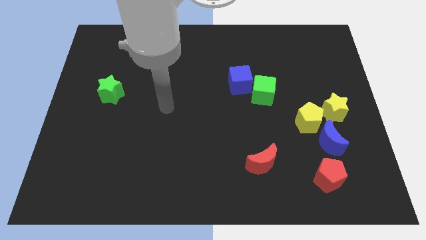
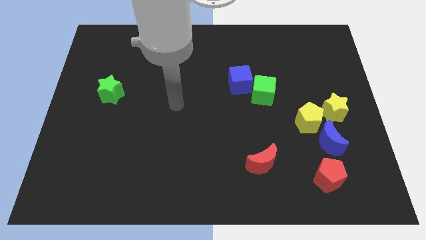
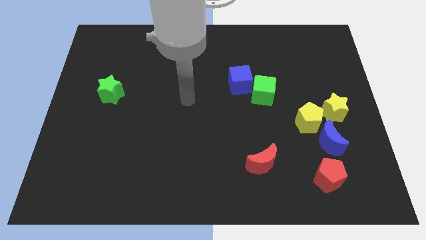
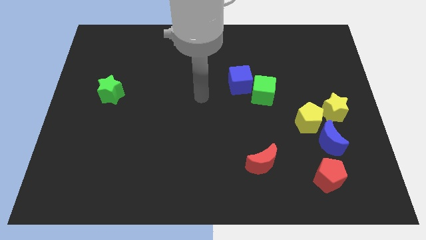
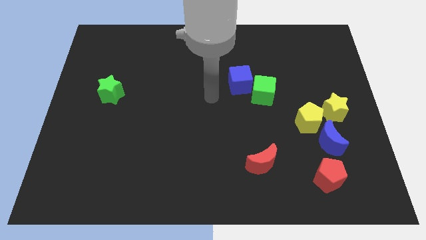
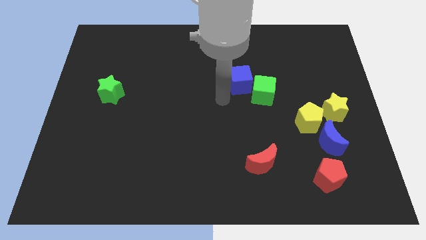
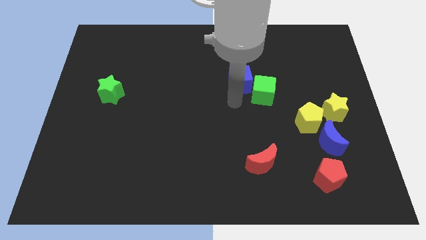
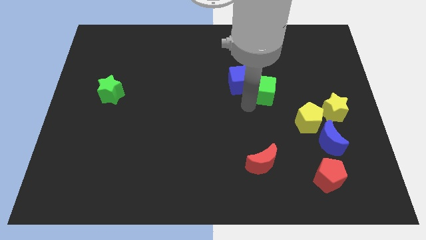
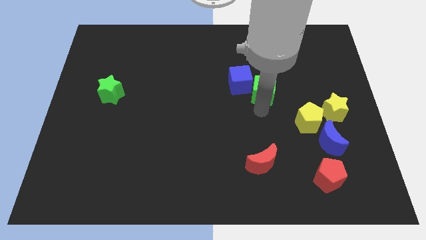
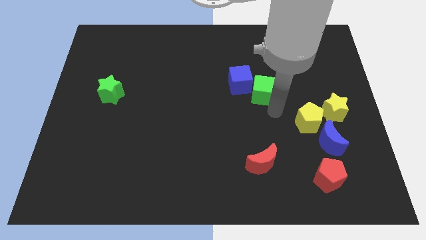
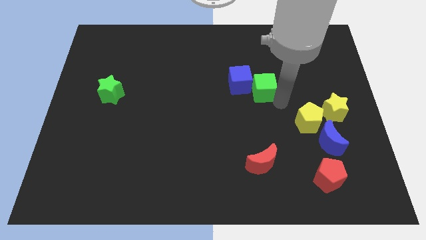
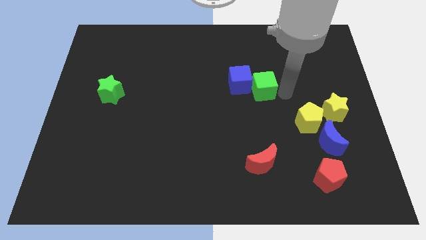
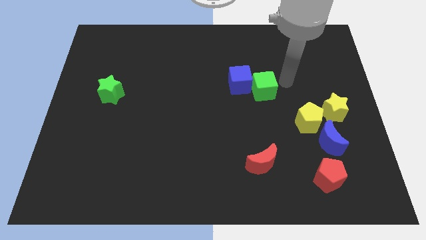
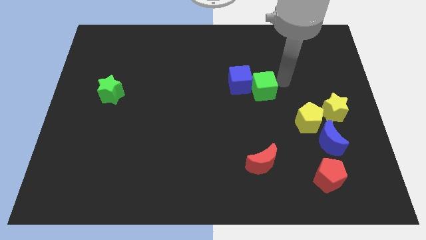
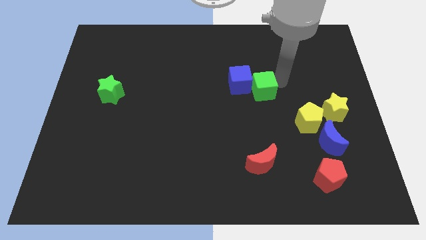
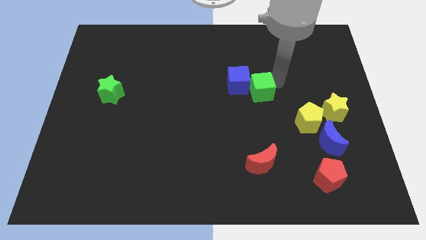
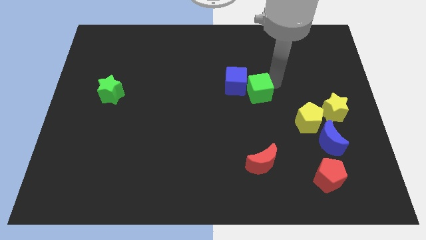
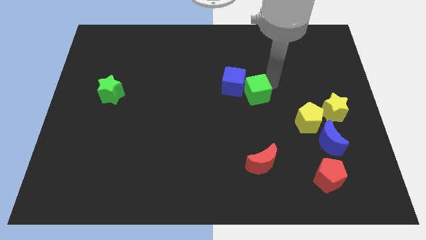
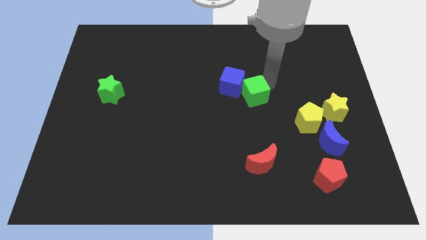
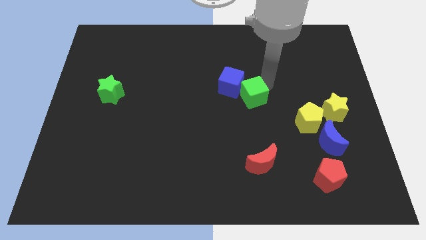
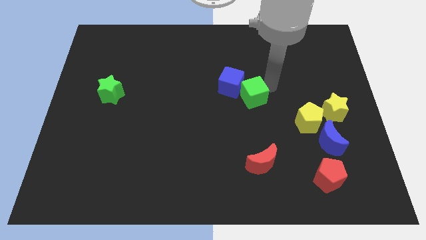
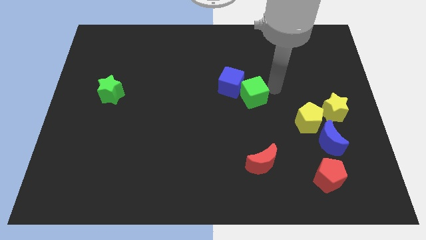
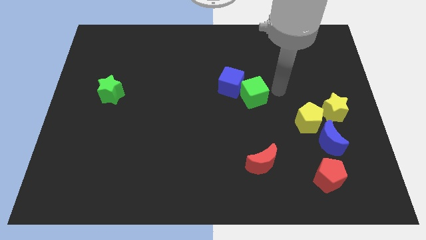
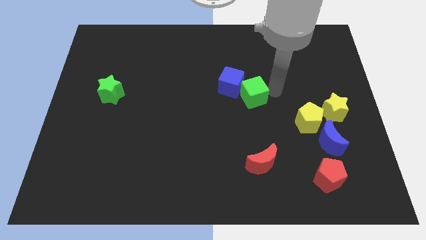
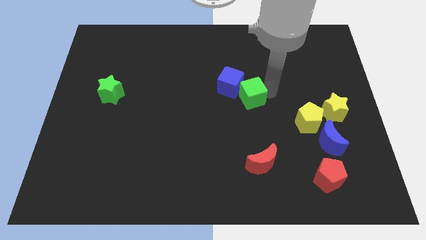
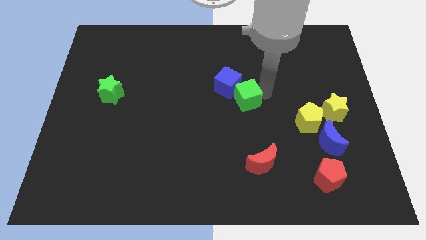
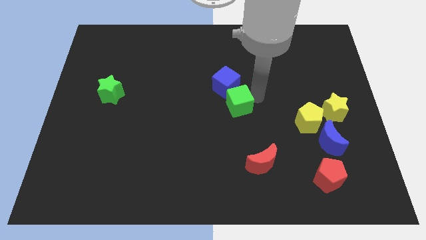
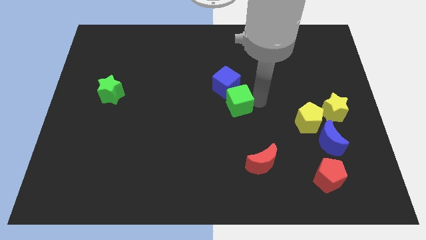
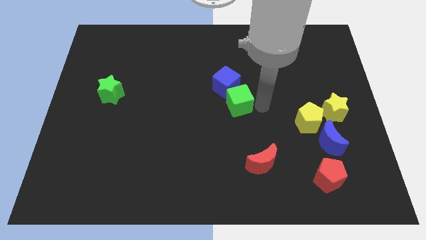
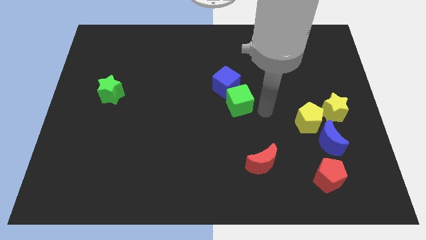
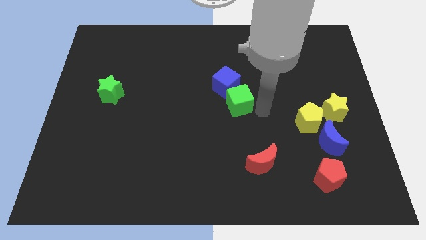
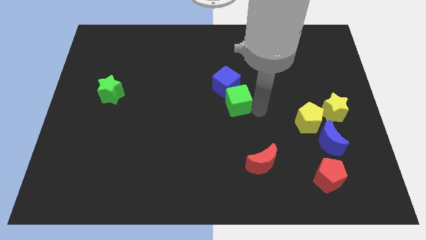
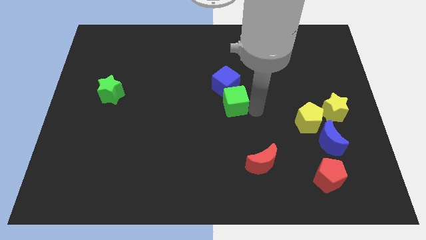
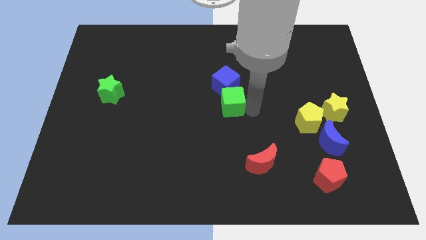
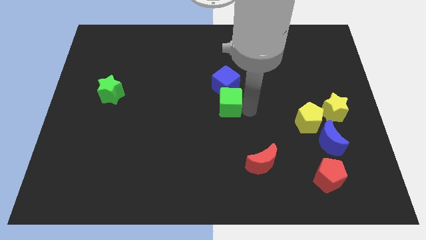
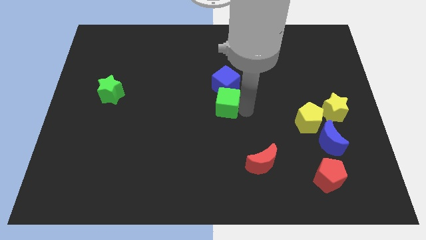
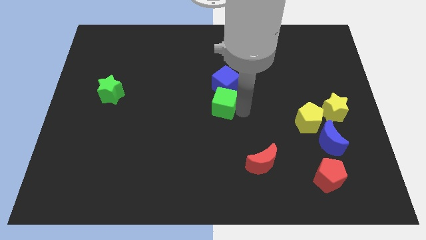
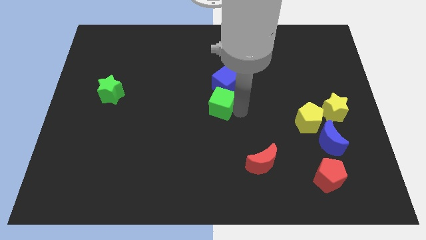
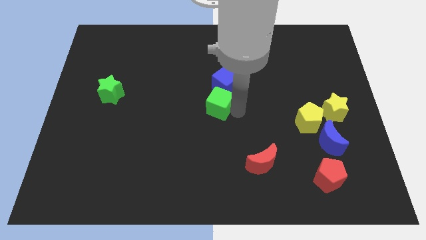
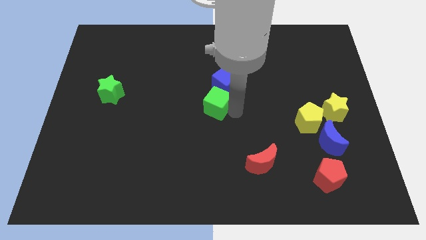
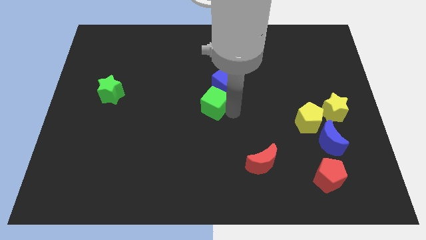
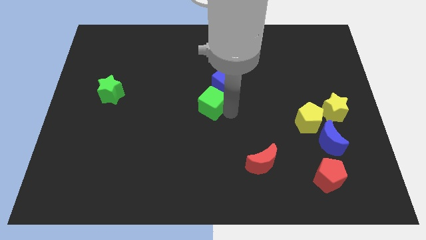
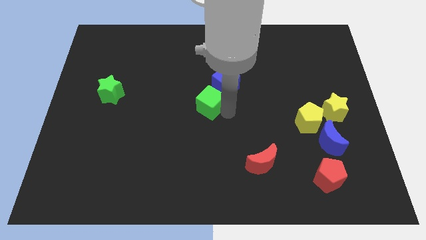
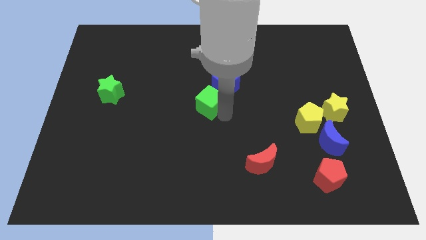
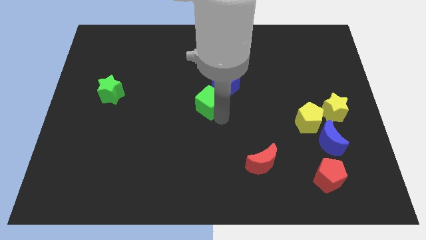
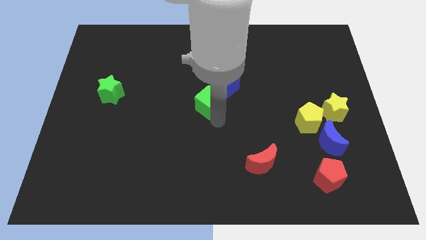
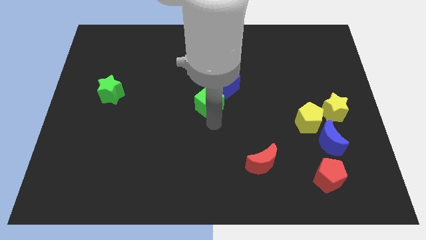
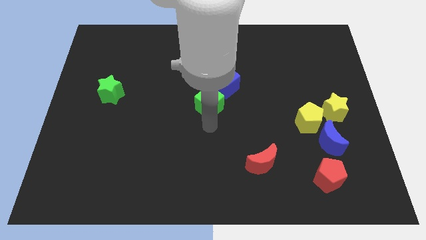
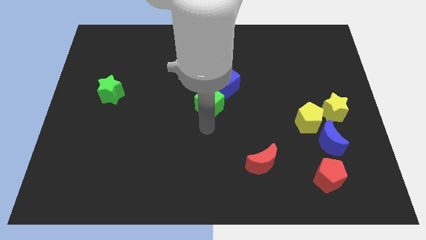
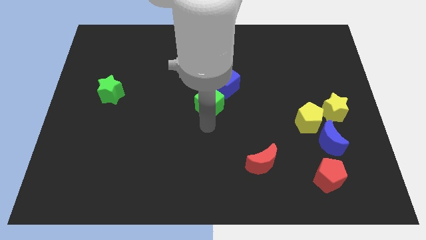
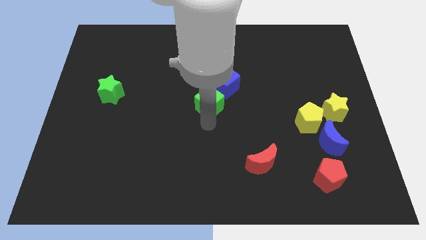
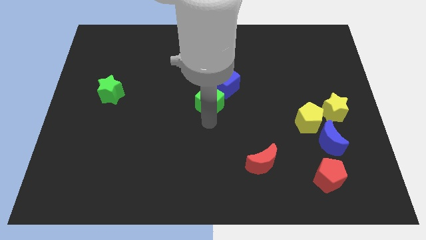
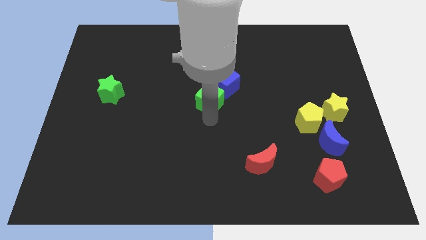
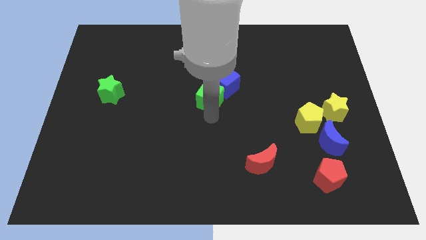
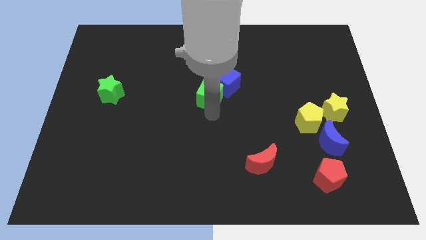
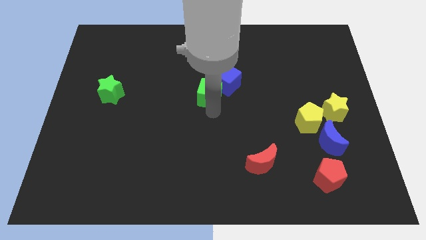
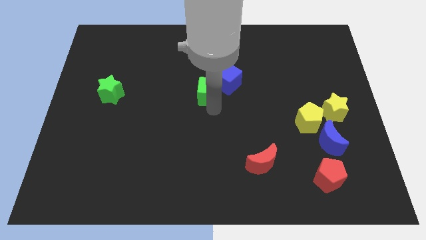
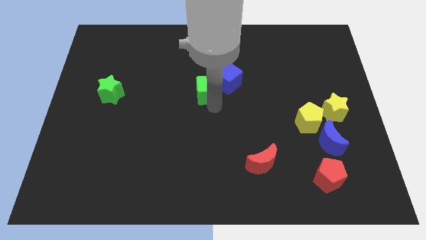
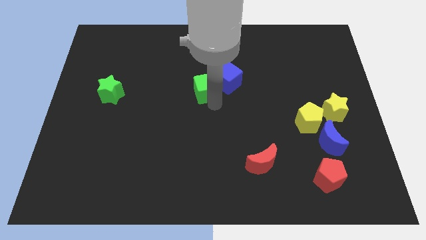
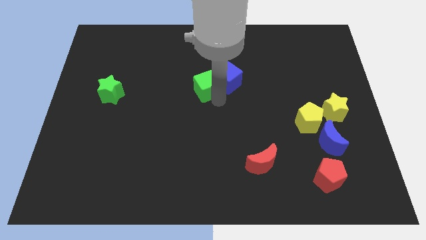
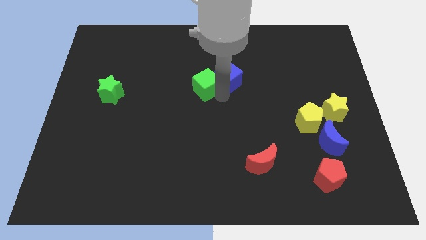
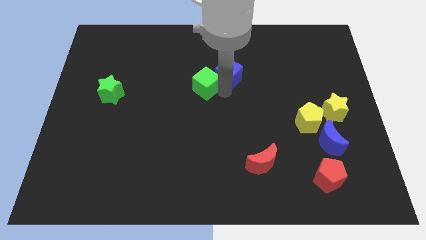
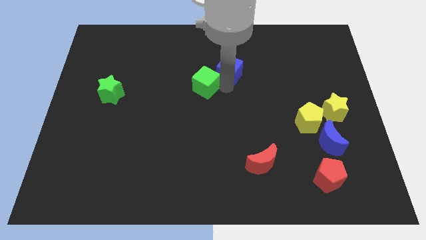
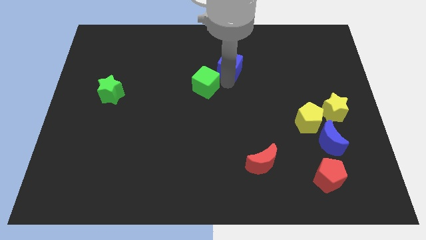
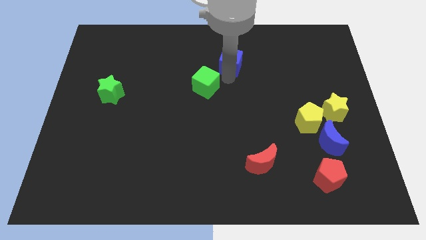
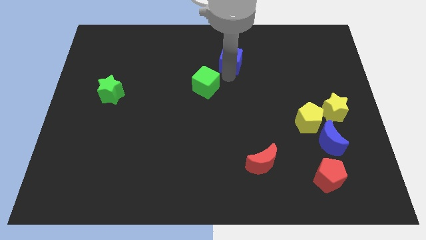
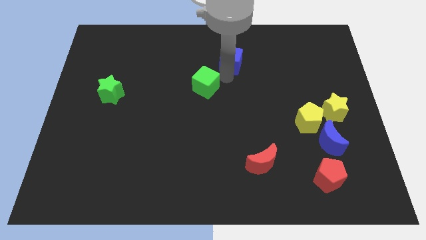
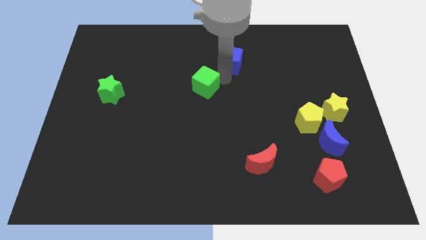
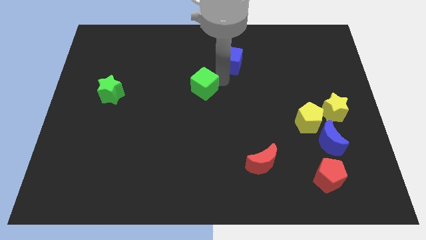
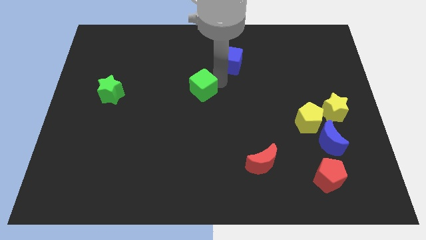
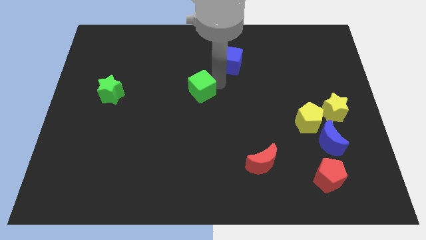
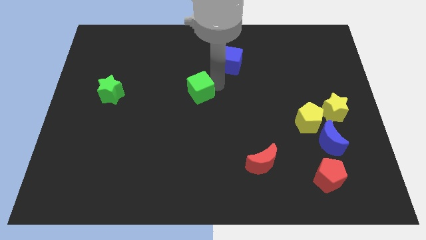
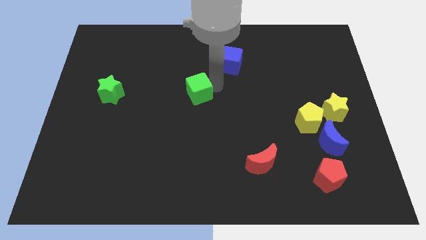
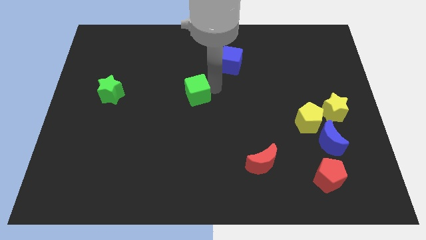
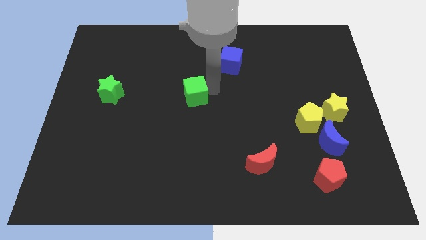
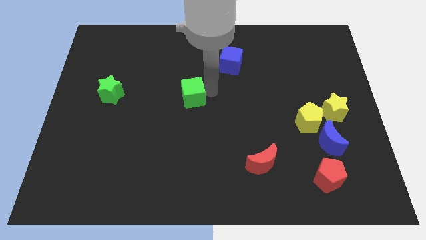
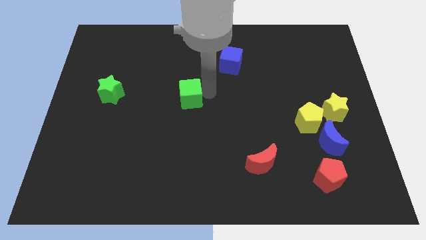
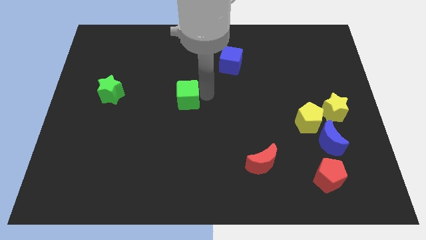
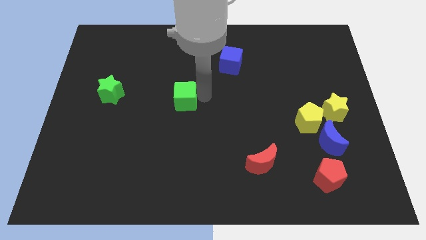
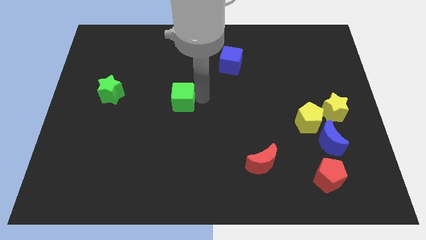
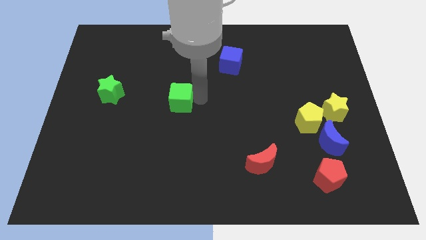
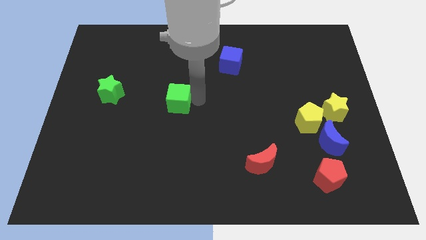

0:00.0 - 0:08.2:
push the green cube to the left
